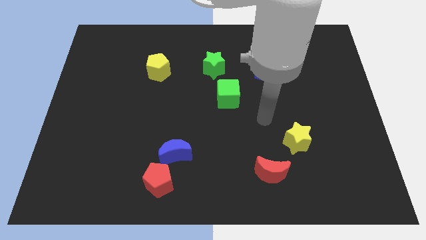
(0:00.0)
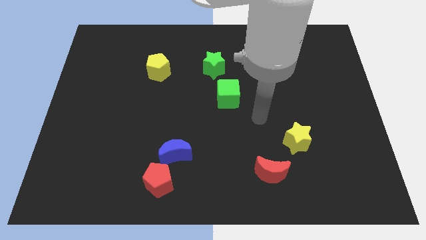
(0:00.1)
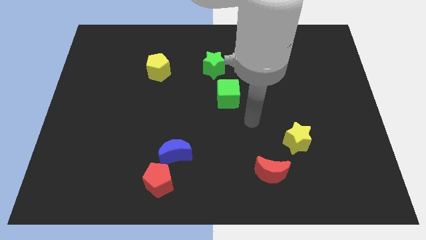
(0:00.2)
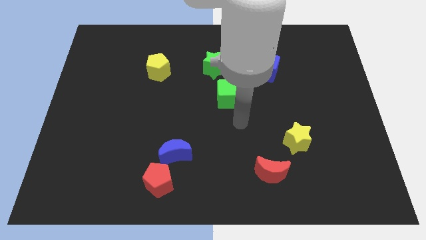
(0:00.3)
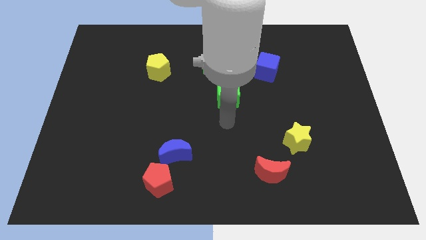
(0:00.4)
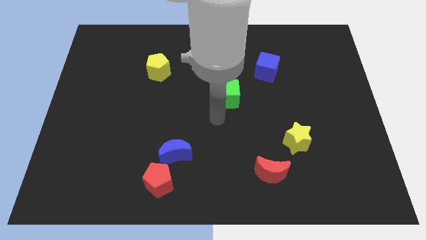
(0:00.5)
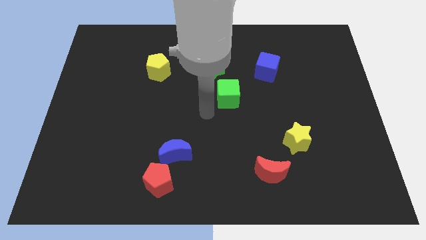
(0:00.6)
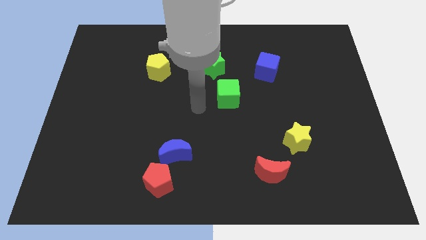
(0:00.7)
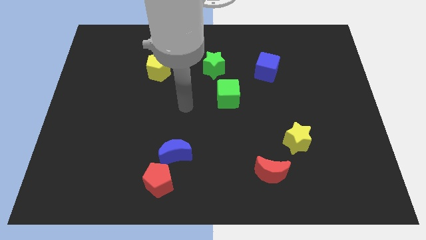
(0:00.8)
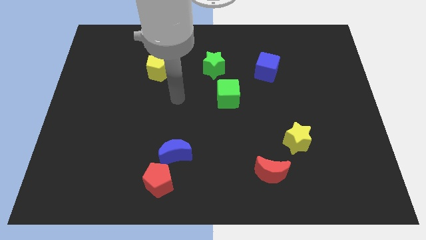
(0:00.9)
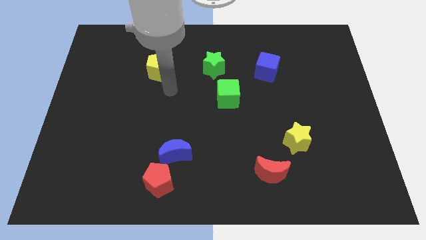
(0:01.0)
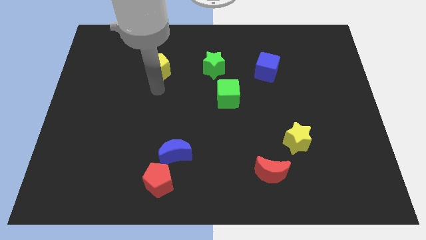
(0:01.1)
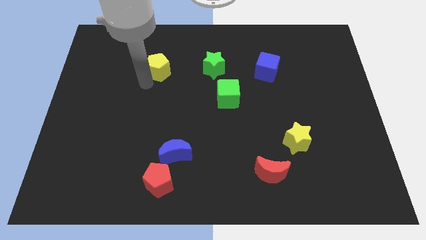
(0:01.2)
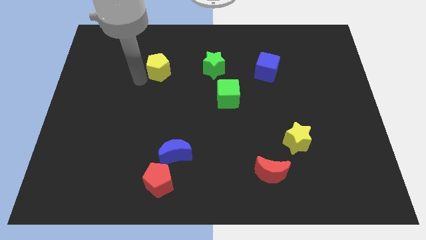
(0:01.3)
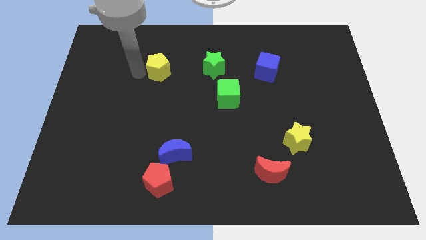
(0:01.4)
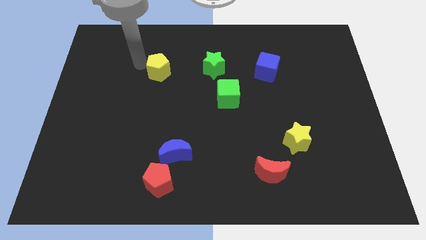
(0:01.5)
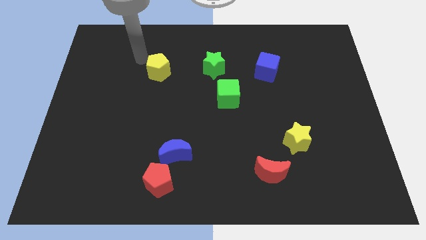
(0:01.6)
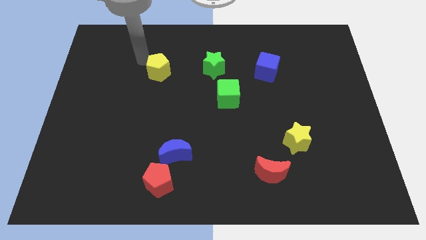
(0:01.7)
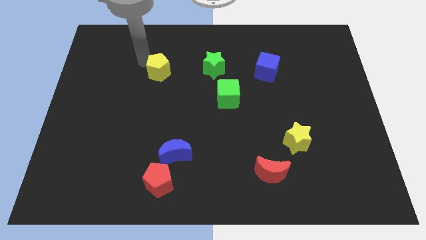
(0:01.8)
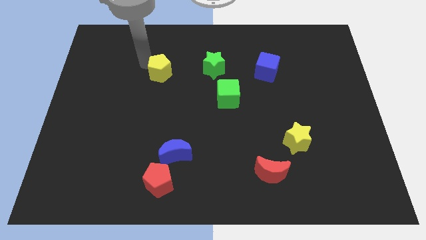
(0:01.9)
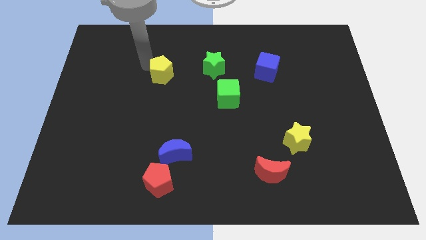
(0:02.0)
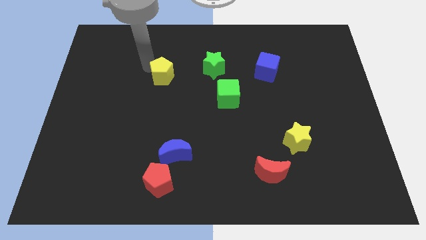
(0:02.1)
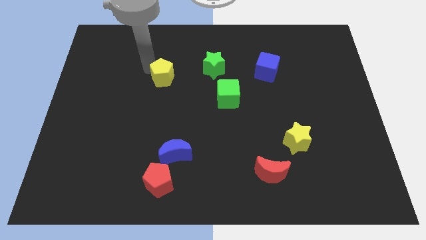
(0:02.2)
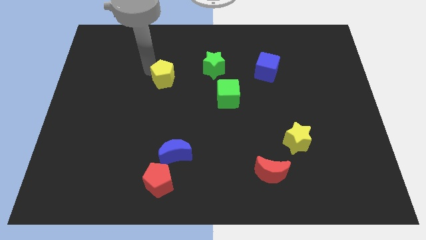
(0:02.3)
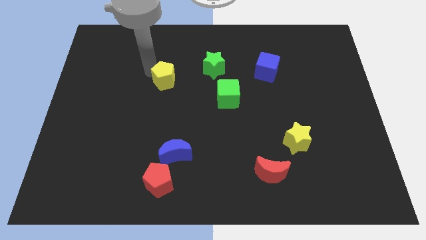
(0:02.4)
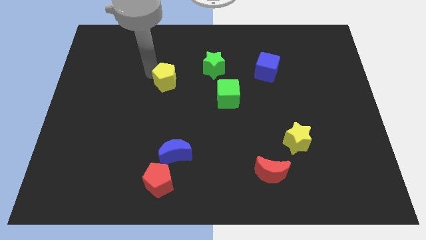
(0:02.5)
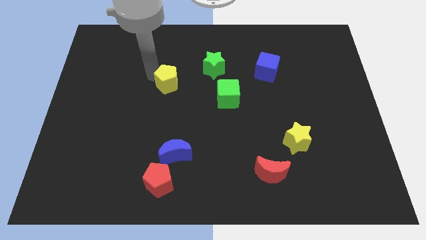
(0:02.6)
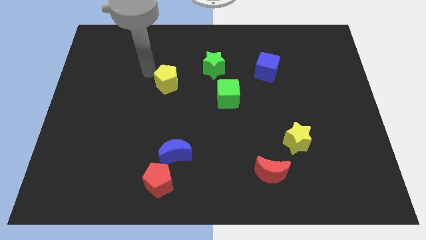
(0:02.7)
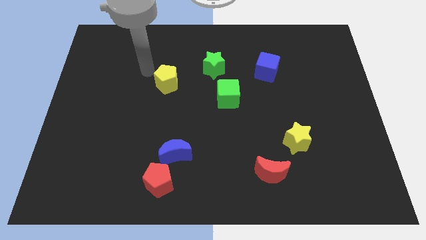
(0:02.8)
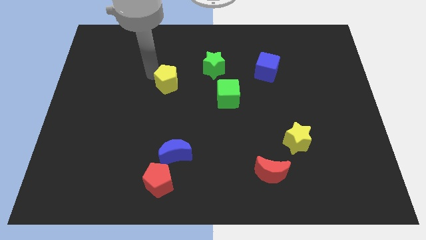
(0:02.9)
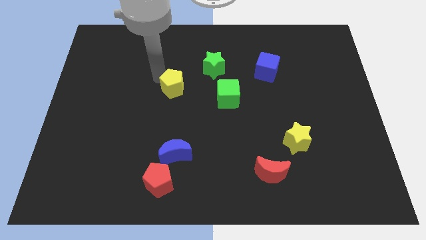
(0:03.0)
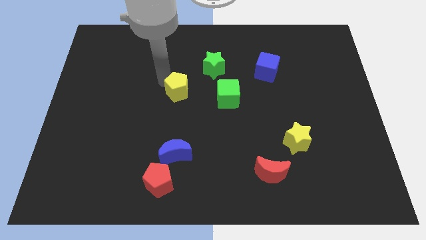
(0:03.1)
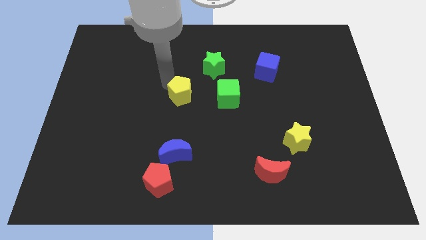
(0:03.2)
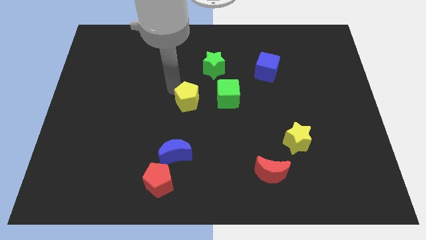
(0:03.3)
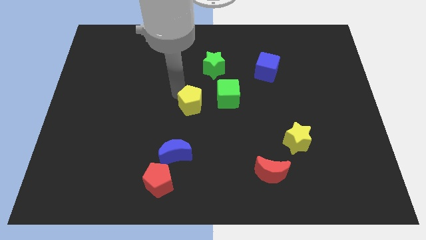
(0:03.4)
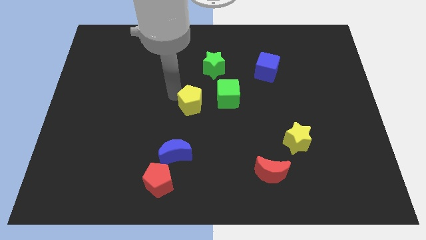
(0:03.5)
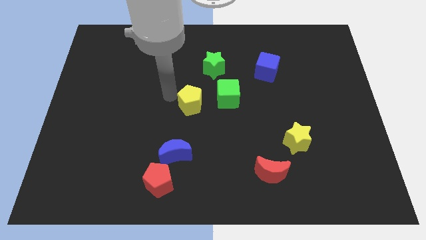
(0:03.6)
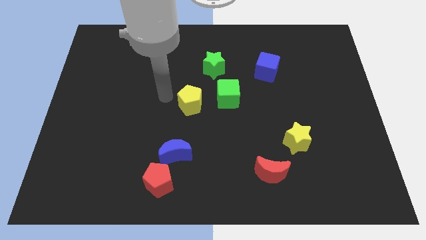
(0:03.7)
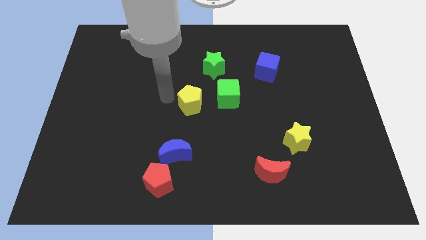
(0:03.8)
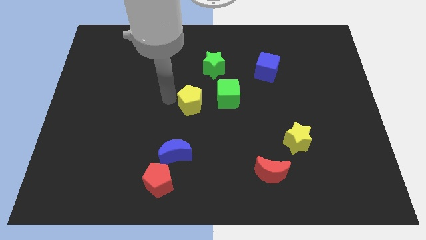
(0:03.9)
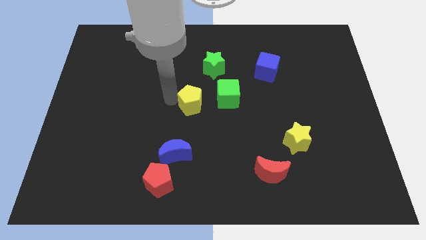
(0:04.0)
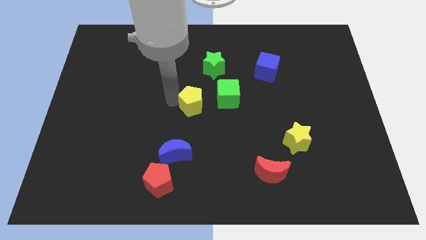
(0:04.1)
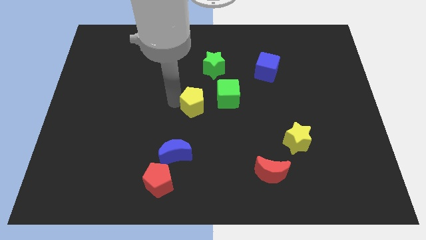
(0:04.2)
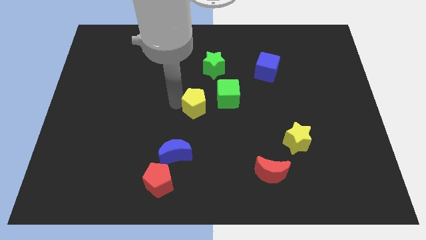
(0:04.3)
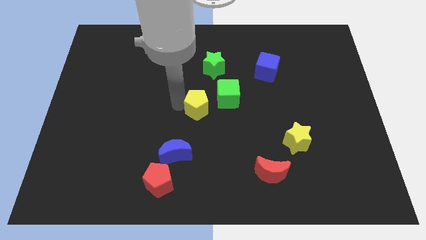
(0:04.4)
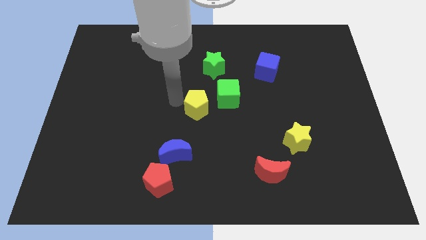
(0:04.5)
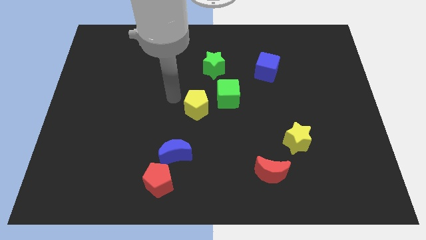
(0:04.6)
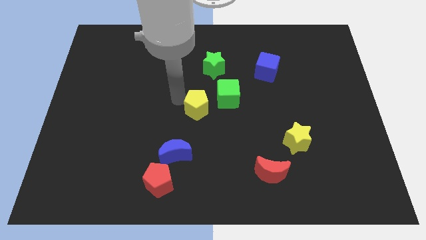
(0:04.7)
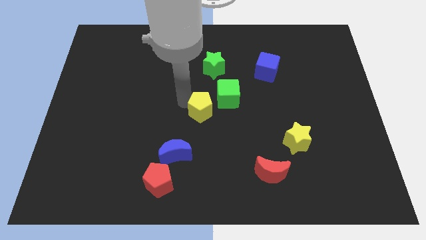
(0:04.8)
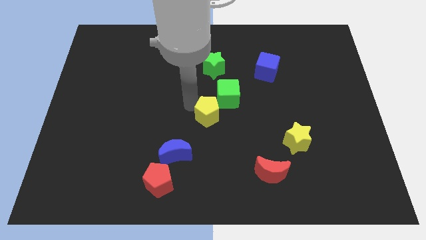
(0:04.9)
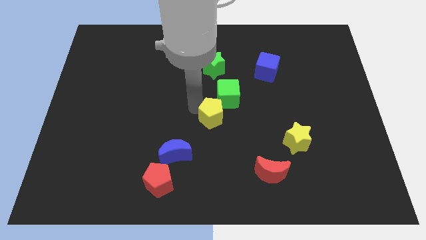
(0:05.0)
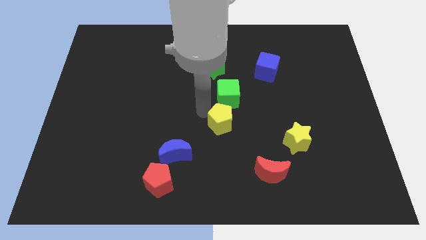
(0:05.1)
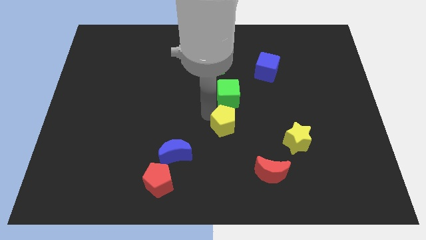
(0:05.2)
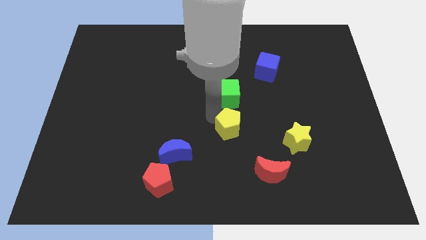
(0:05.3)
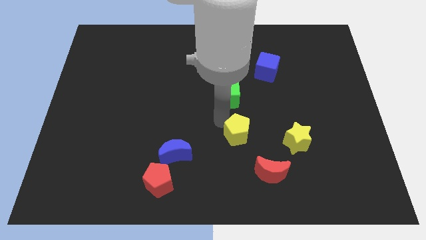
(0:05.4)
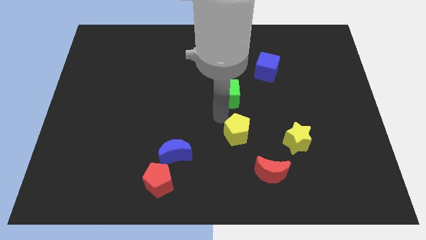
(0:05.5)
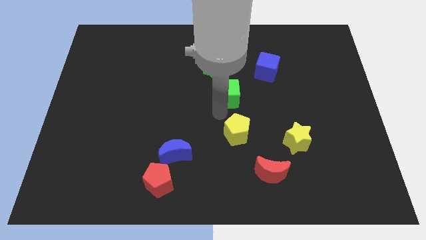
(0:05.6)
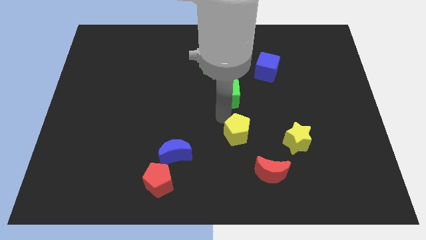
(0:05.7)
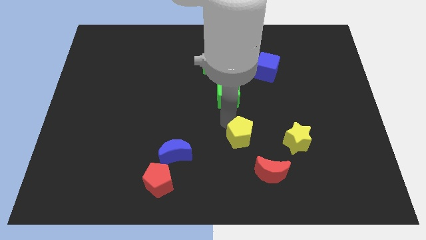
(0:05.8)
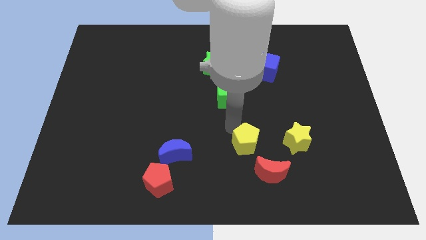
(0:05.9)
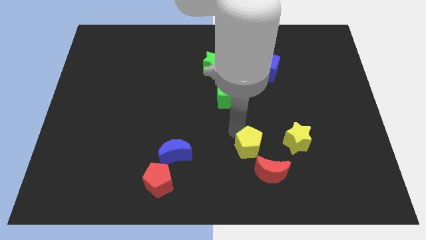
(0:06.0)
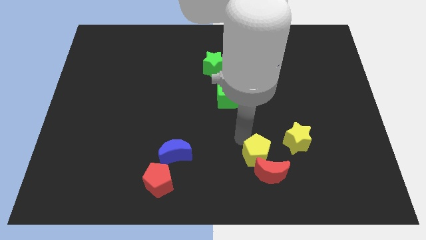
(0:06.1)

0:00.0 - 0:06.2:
push the yellow pentagon next to the red moon

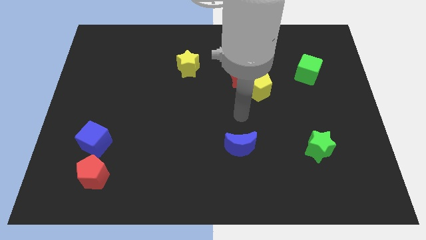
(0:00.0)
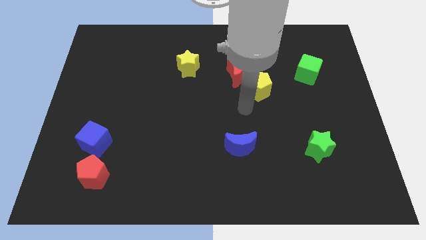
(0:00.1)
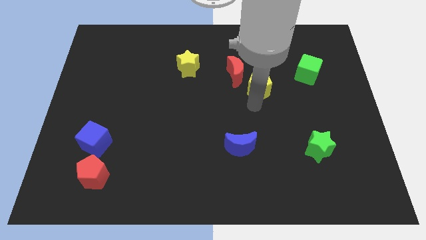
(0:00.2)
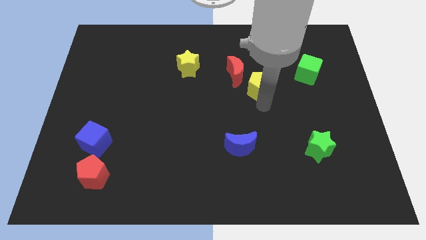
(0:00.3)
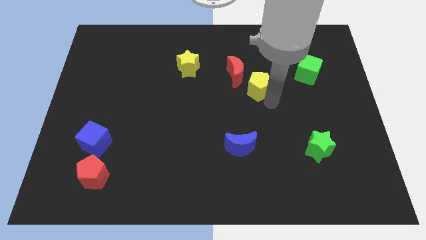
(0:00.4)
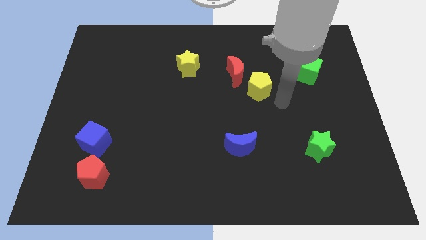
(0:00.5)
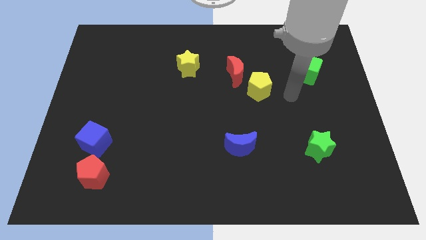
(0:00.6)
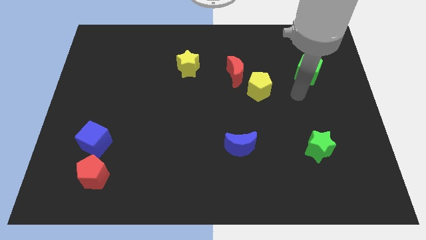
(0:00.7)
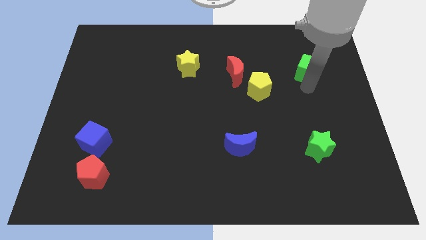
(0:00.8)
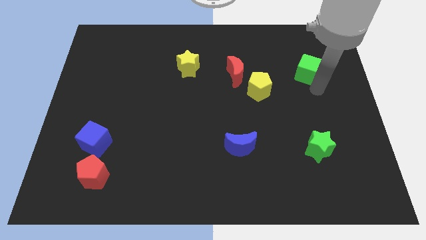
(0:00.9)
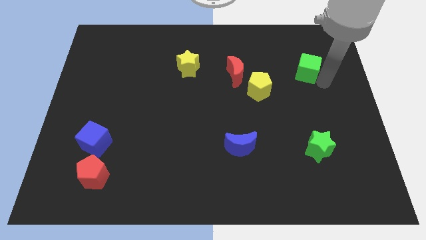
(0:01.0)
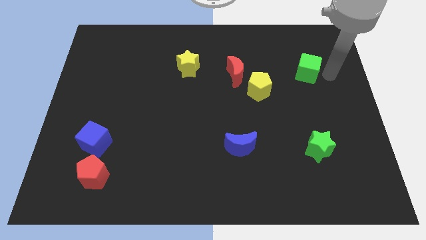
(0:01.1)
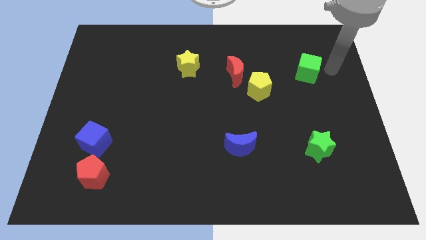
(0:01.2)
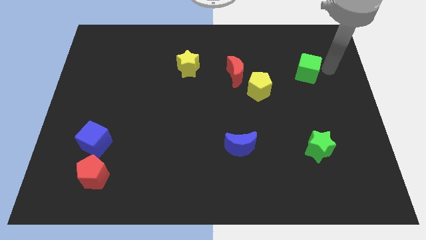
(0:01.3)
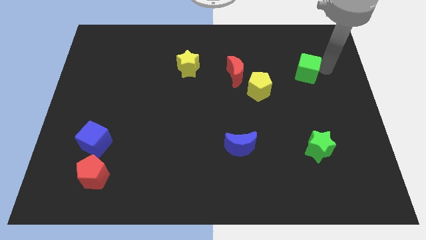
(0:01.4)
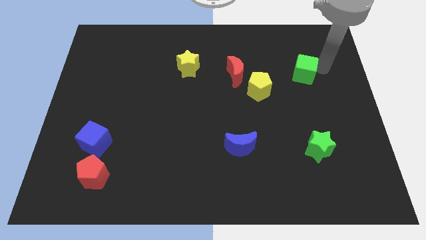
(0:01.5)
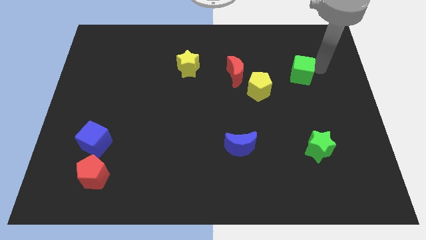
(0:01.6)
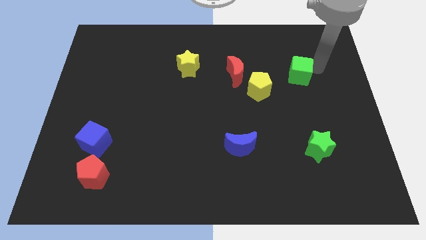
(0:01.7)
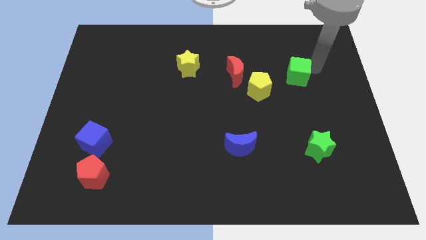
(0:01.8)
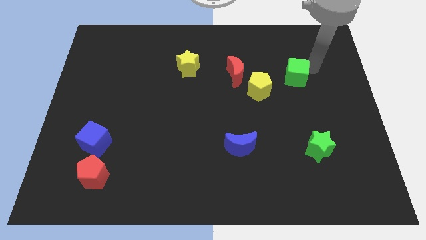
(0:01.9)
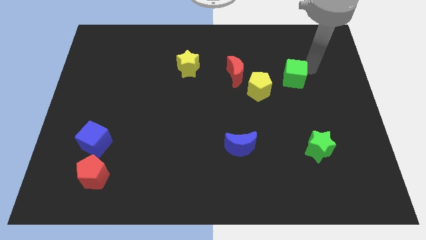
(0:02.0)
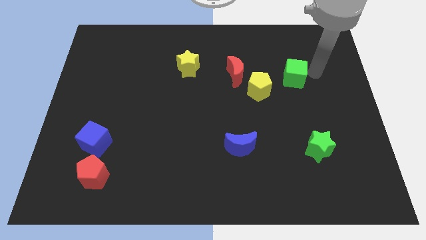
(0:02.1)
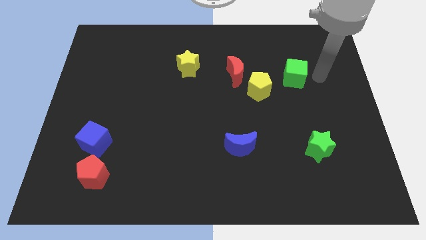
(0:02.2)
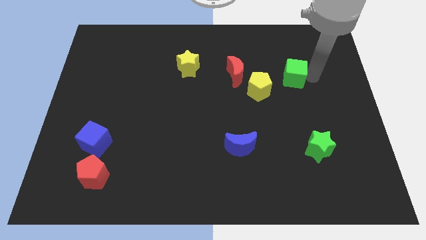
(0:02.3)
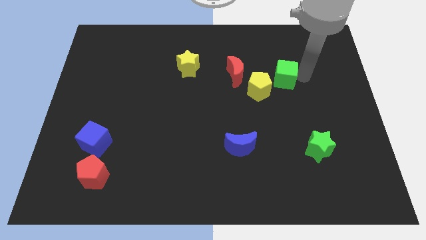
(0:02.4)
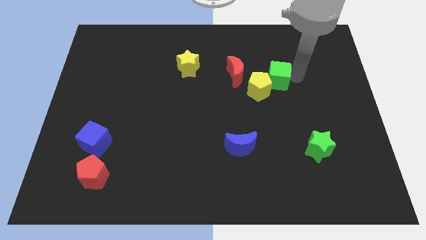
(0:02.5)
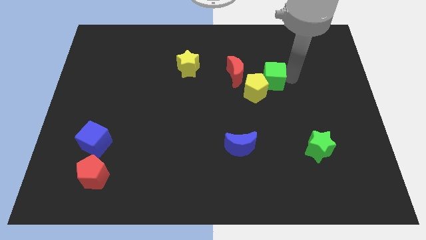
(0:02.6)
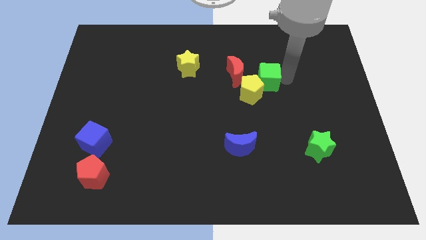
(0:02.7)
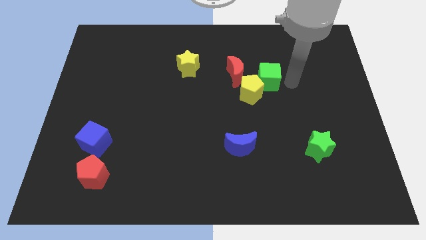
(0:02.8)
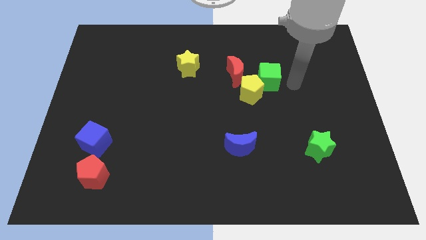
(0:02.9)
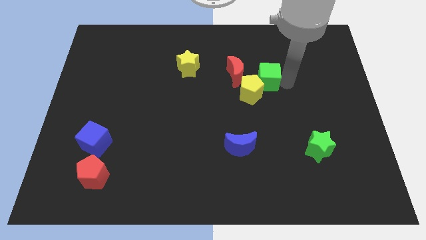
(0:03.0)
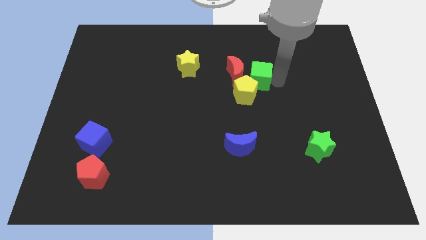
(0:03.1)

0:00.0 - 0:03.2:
move the green cube next to the red moon
